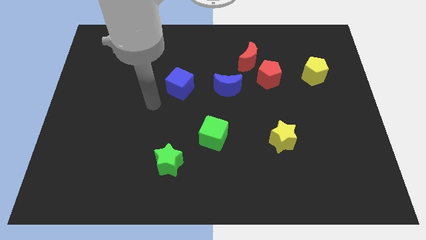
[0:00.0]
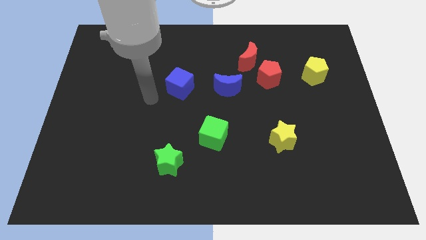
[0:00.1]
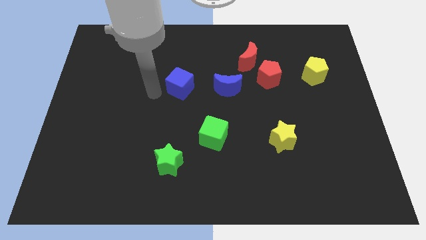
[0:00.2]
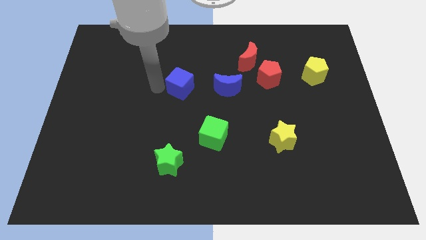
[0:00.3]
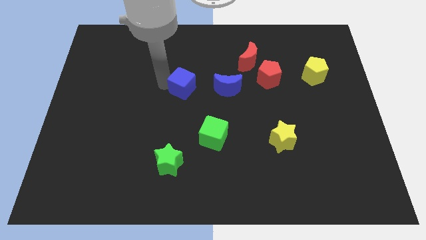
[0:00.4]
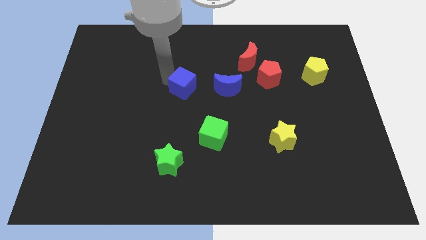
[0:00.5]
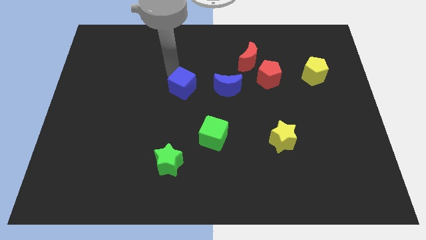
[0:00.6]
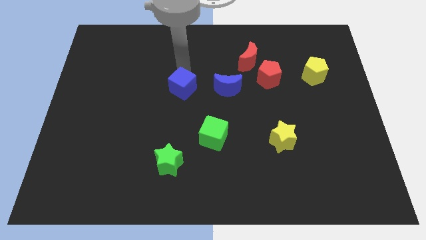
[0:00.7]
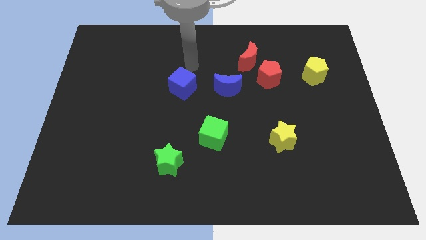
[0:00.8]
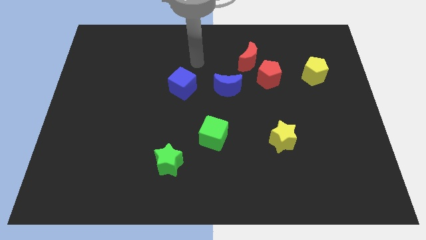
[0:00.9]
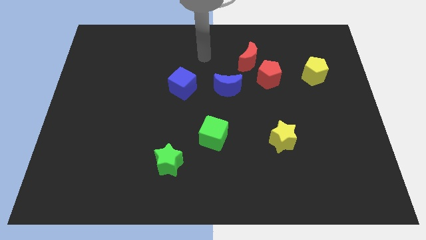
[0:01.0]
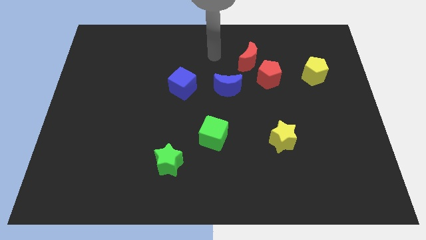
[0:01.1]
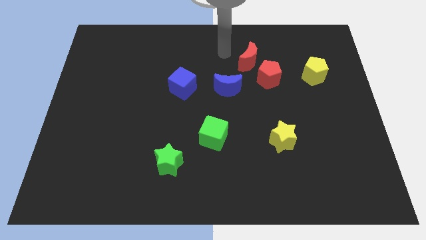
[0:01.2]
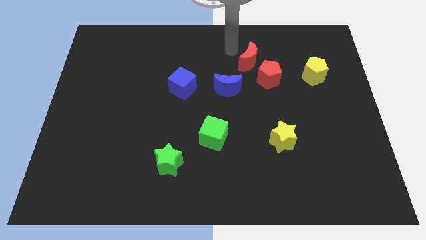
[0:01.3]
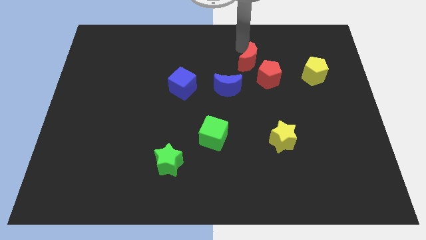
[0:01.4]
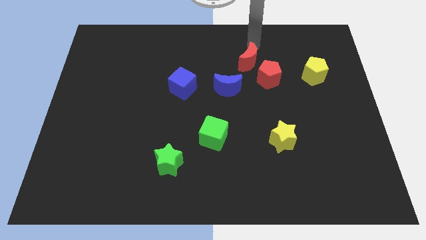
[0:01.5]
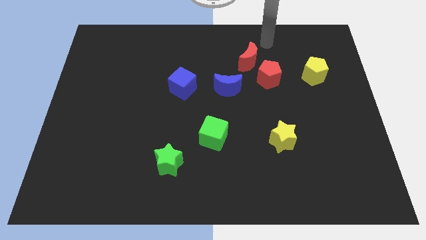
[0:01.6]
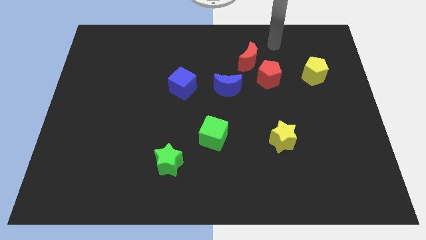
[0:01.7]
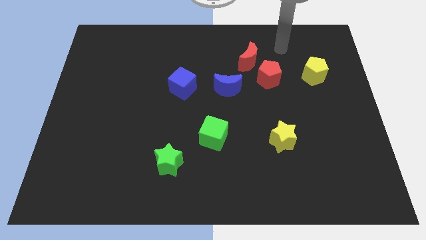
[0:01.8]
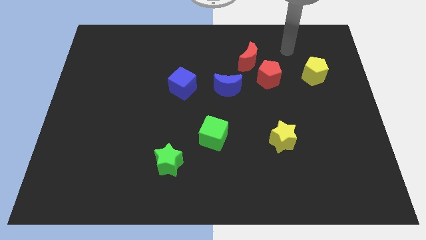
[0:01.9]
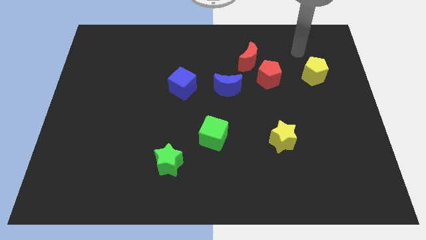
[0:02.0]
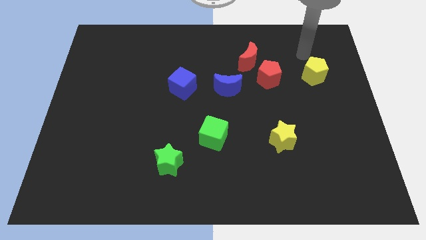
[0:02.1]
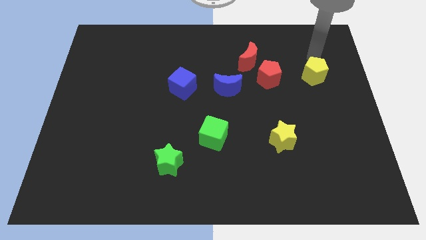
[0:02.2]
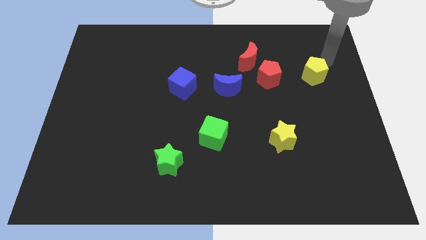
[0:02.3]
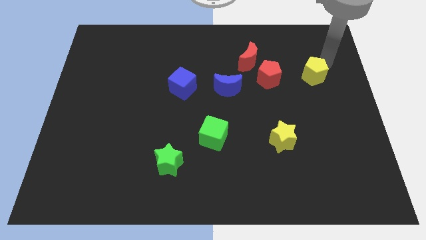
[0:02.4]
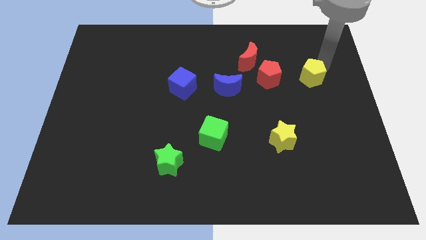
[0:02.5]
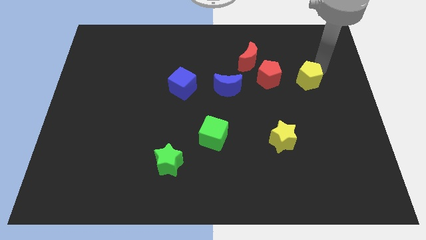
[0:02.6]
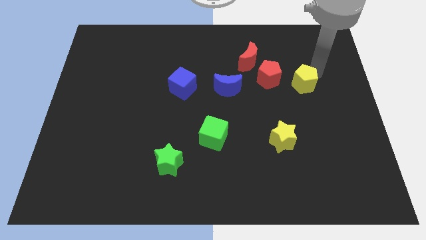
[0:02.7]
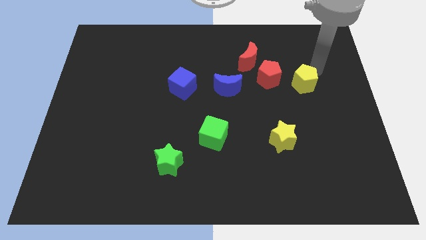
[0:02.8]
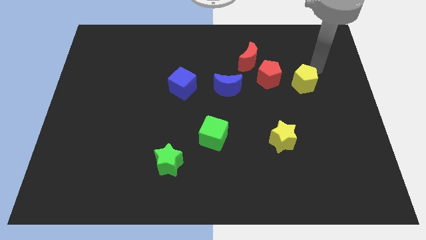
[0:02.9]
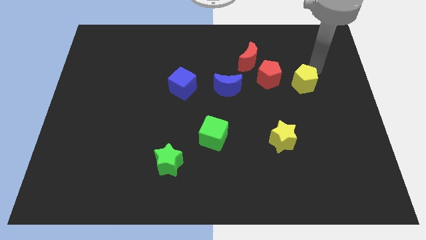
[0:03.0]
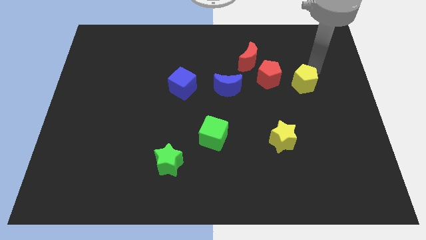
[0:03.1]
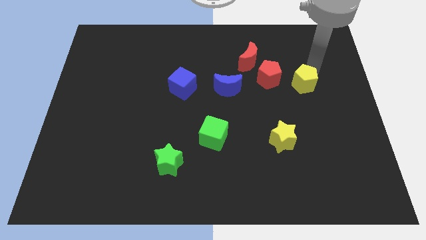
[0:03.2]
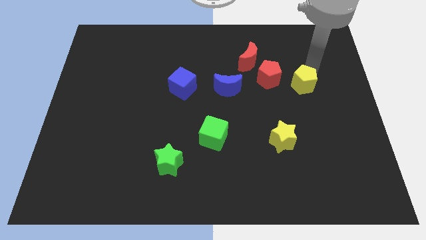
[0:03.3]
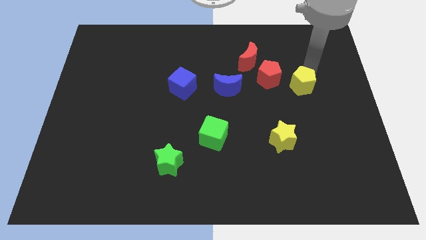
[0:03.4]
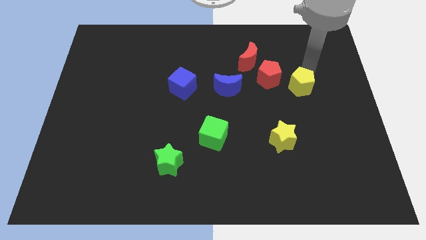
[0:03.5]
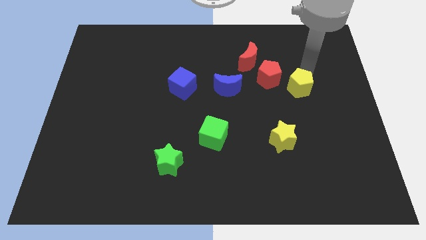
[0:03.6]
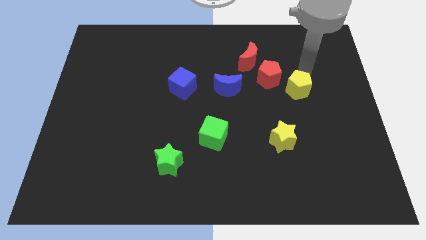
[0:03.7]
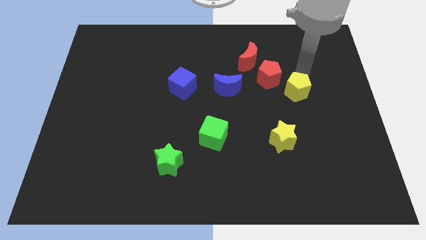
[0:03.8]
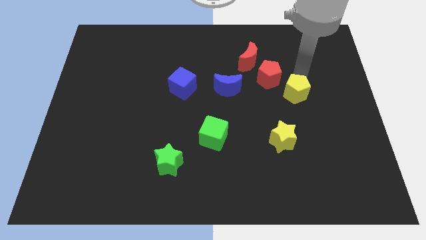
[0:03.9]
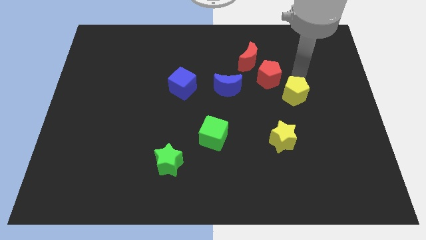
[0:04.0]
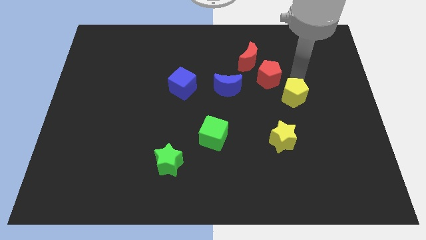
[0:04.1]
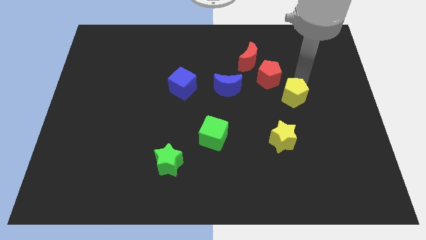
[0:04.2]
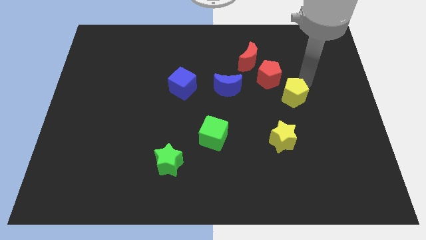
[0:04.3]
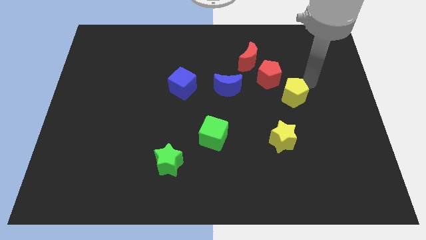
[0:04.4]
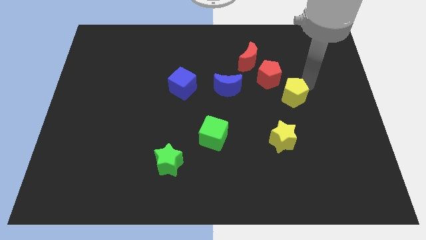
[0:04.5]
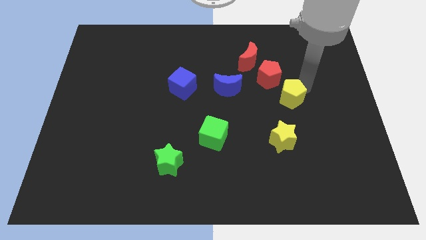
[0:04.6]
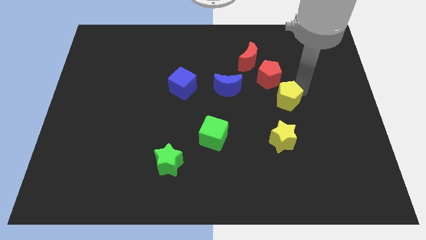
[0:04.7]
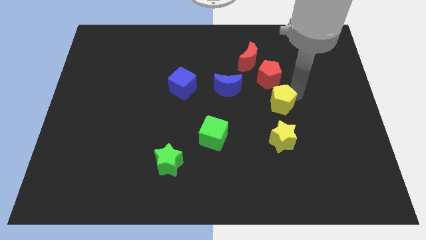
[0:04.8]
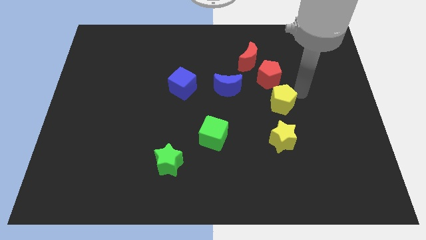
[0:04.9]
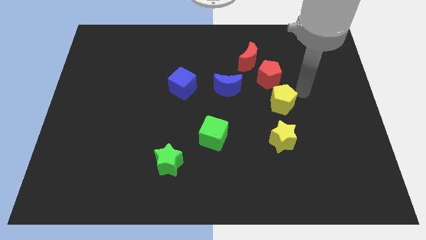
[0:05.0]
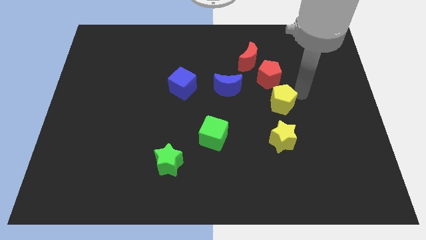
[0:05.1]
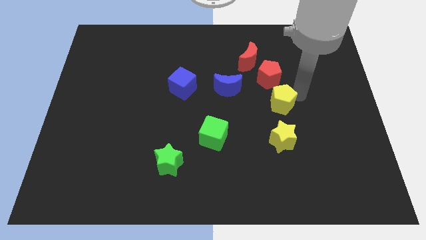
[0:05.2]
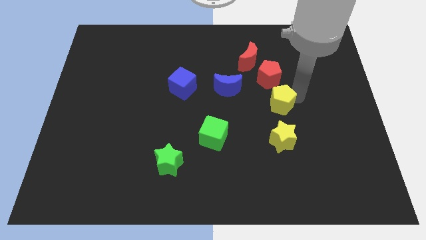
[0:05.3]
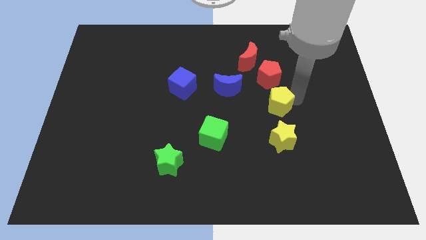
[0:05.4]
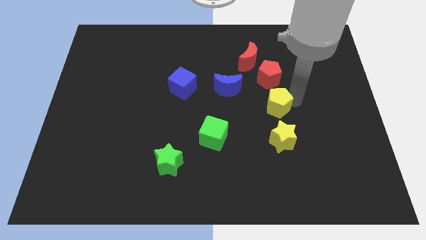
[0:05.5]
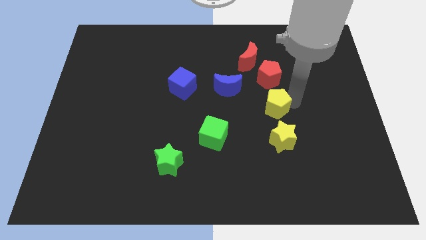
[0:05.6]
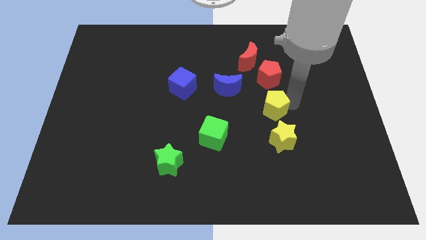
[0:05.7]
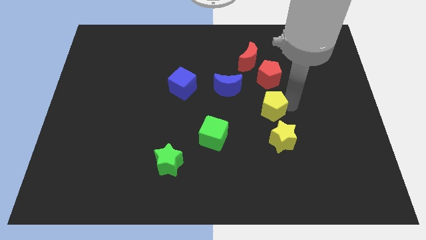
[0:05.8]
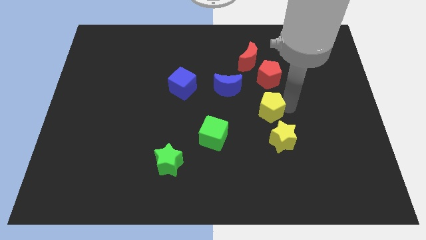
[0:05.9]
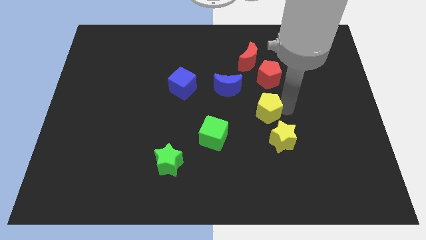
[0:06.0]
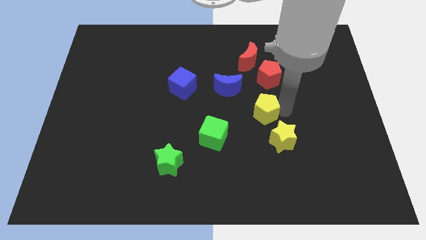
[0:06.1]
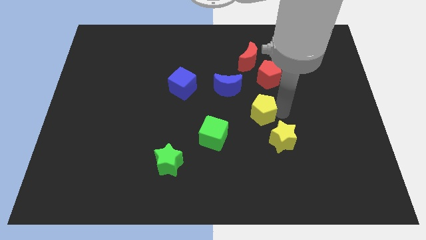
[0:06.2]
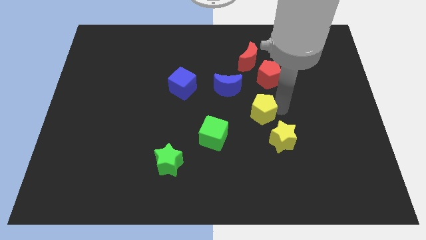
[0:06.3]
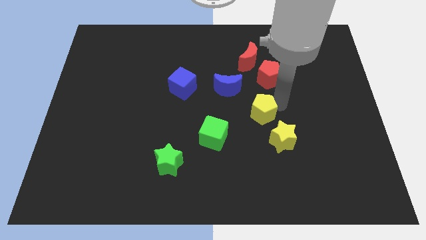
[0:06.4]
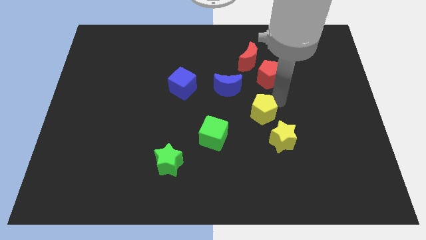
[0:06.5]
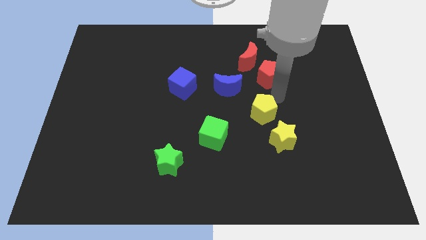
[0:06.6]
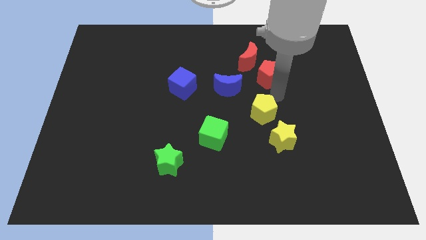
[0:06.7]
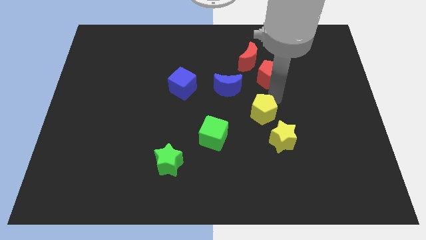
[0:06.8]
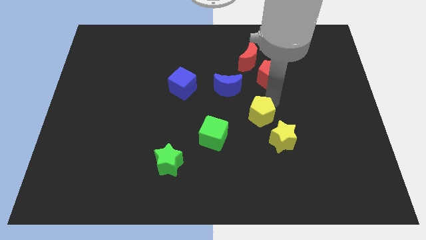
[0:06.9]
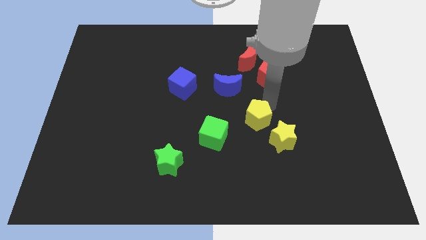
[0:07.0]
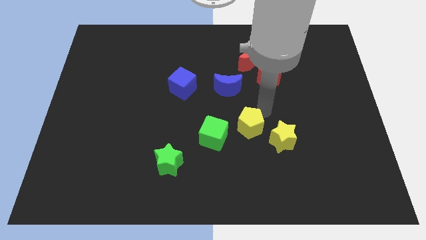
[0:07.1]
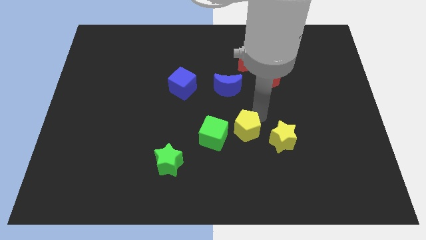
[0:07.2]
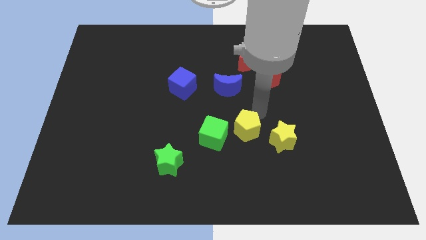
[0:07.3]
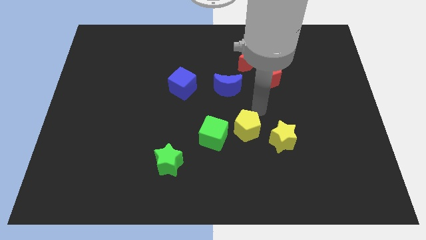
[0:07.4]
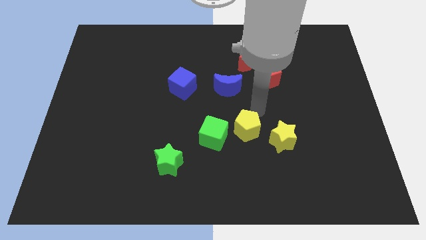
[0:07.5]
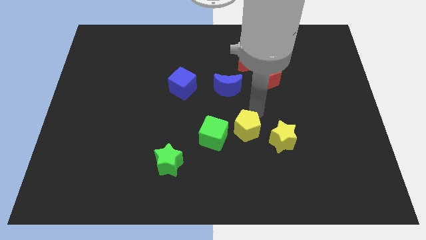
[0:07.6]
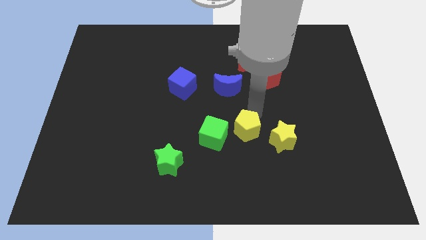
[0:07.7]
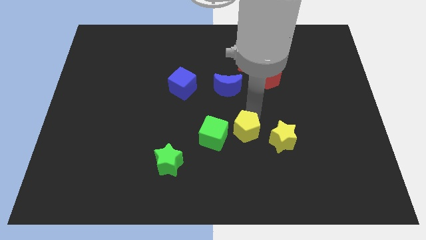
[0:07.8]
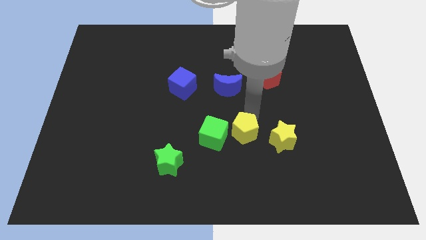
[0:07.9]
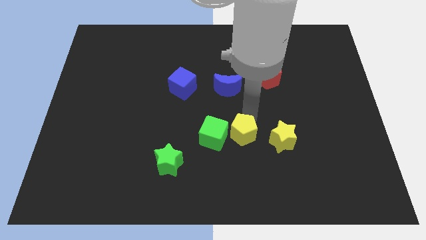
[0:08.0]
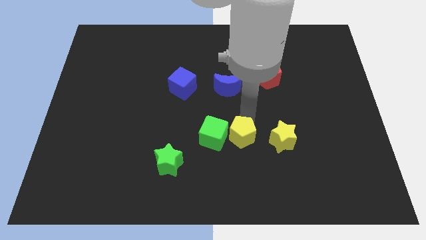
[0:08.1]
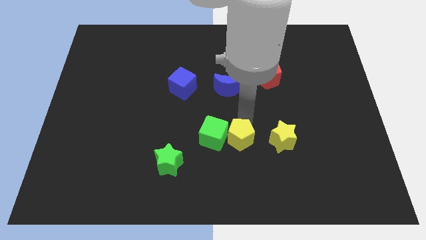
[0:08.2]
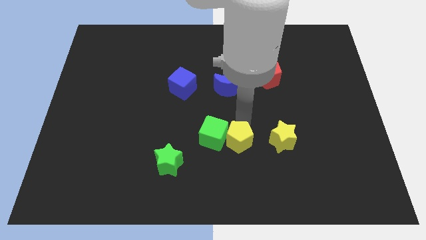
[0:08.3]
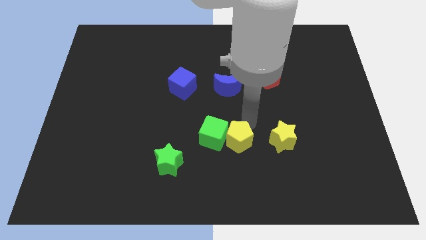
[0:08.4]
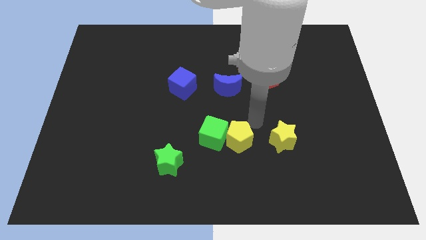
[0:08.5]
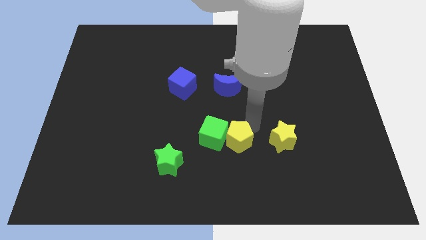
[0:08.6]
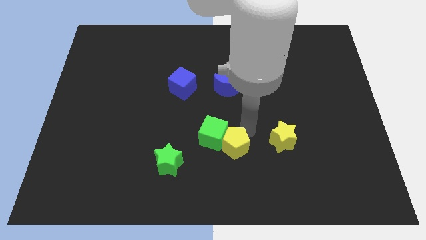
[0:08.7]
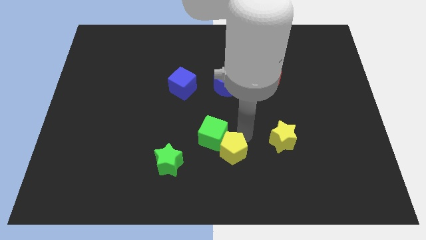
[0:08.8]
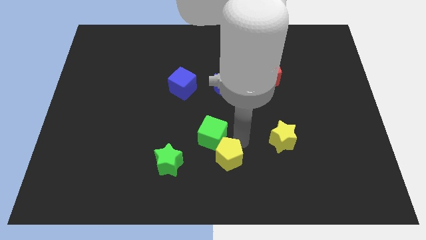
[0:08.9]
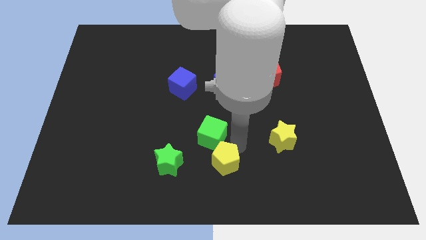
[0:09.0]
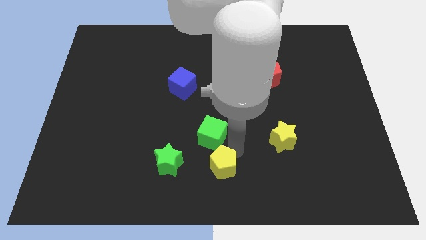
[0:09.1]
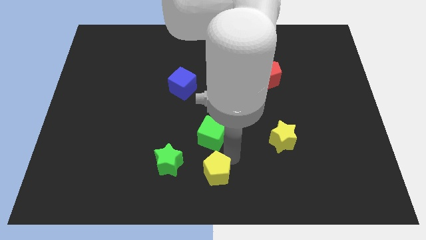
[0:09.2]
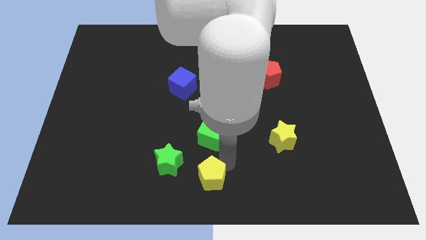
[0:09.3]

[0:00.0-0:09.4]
put the yellow pentagon to the bottom right of the green star
